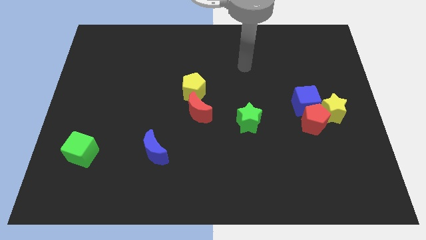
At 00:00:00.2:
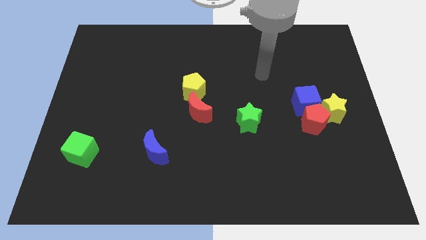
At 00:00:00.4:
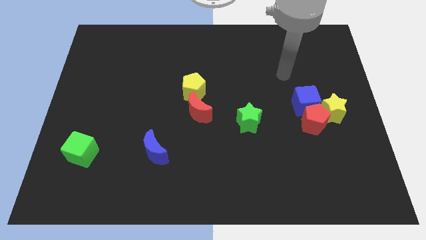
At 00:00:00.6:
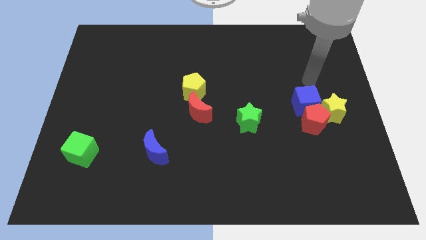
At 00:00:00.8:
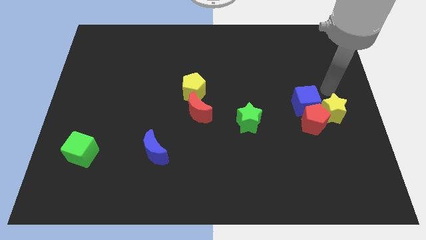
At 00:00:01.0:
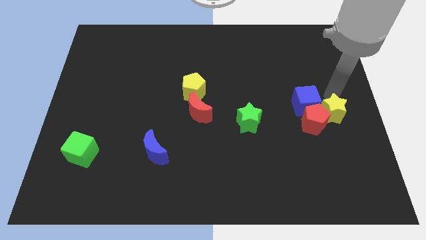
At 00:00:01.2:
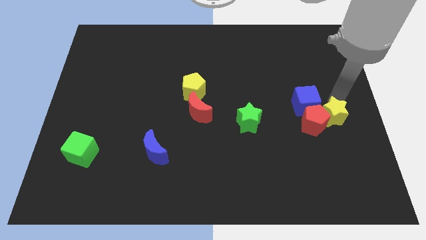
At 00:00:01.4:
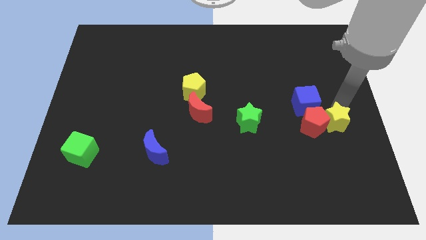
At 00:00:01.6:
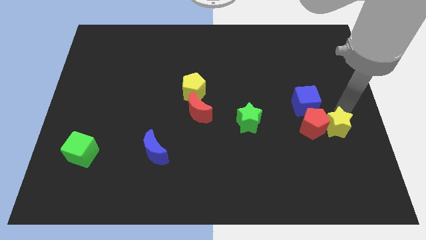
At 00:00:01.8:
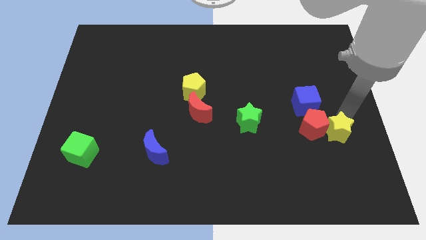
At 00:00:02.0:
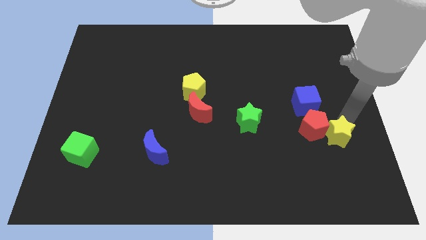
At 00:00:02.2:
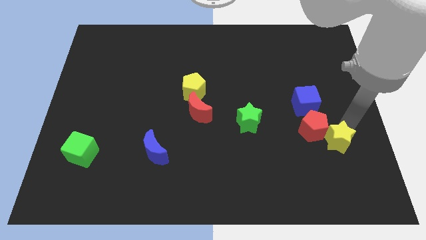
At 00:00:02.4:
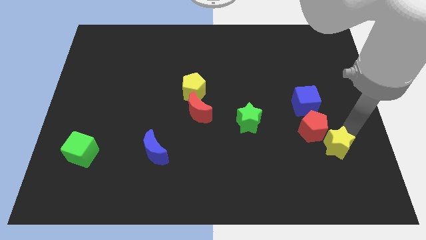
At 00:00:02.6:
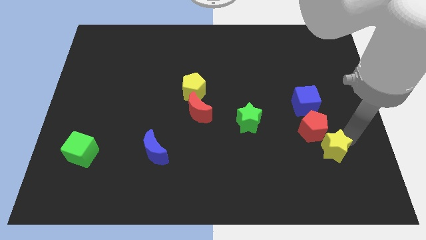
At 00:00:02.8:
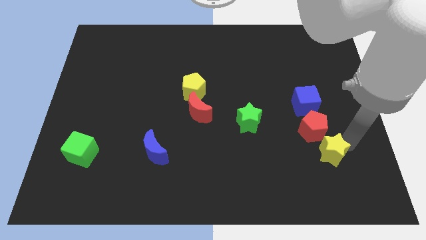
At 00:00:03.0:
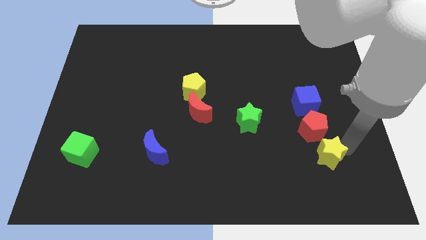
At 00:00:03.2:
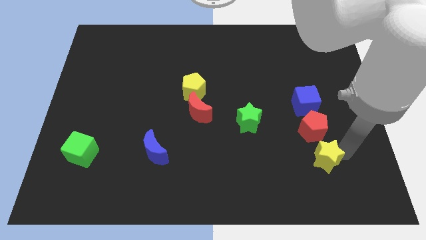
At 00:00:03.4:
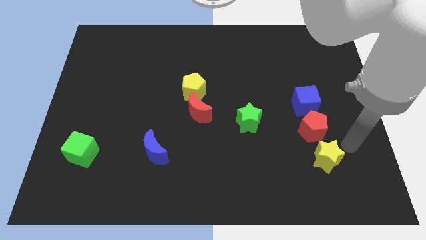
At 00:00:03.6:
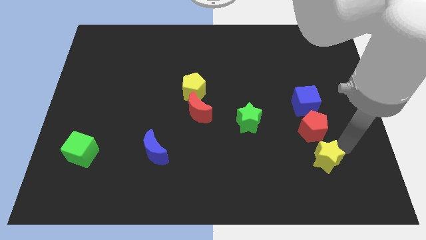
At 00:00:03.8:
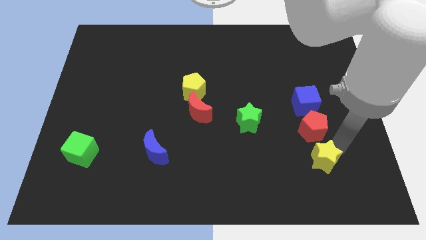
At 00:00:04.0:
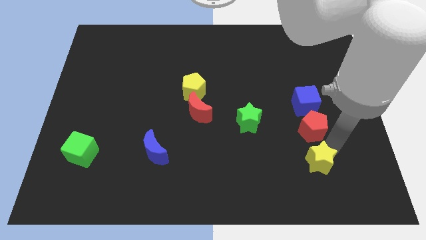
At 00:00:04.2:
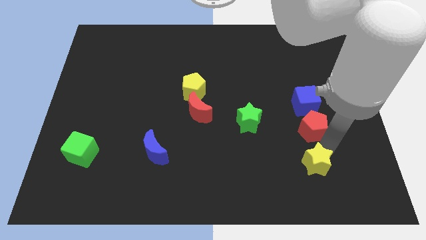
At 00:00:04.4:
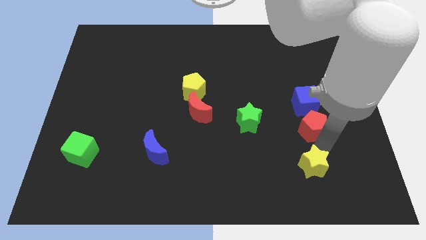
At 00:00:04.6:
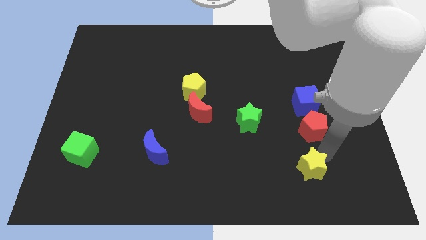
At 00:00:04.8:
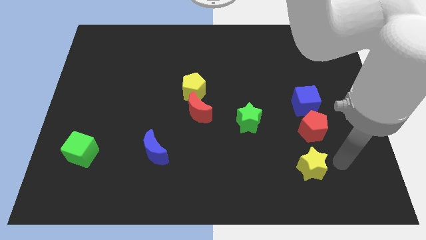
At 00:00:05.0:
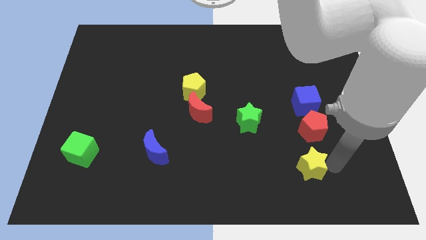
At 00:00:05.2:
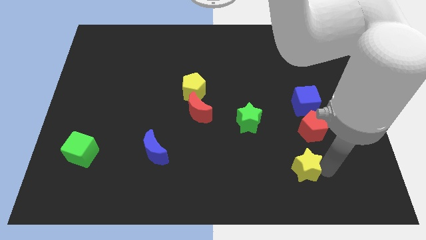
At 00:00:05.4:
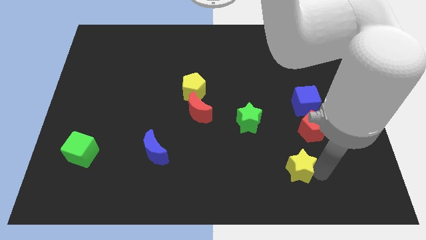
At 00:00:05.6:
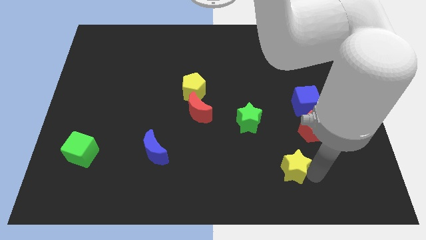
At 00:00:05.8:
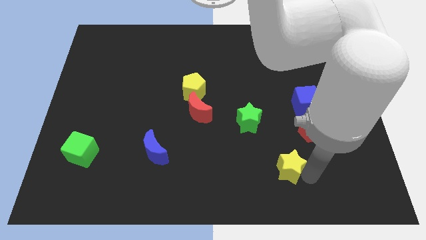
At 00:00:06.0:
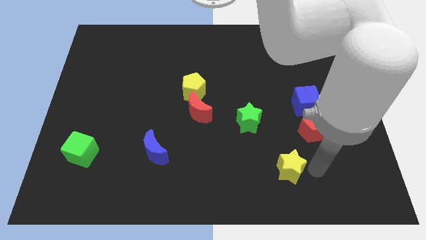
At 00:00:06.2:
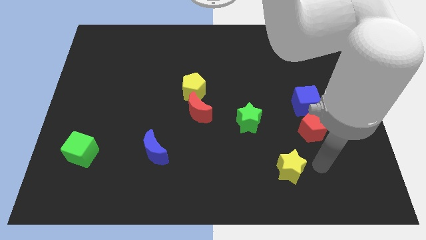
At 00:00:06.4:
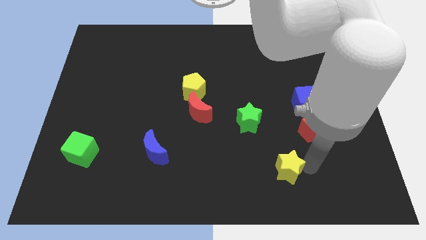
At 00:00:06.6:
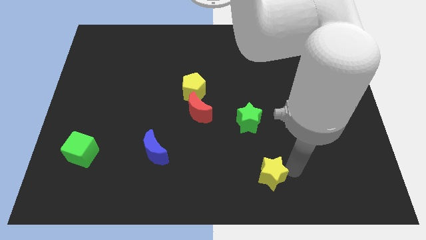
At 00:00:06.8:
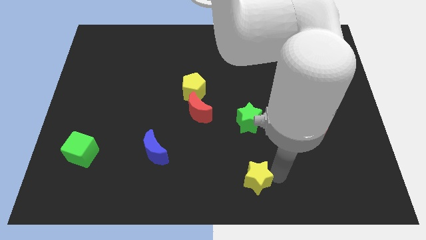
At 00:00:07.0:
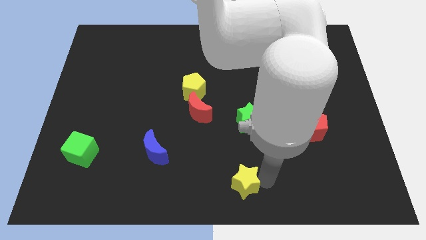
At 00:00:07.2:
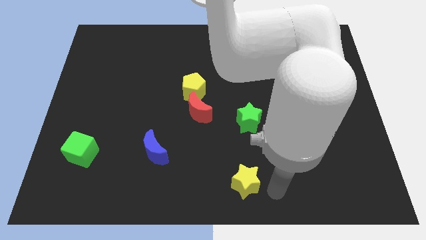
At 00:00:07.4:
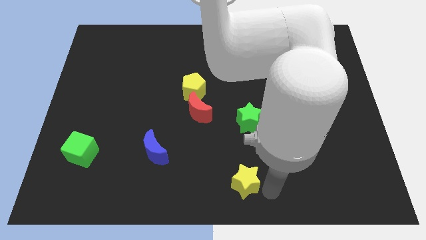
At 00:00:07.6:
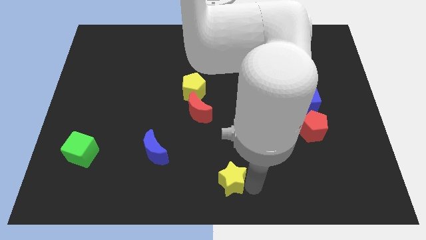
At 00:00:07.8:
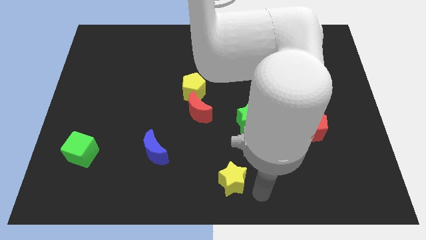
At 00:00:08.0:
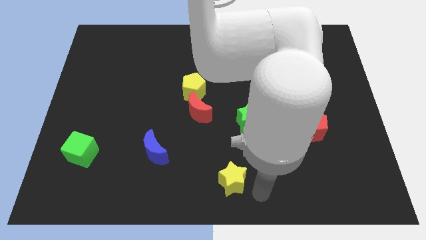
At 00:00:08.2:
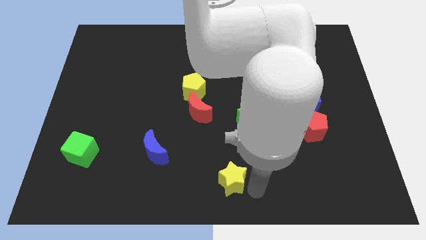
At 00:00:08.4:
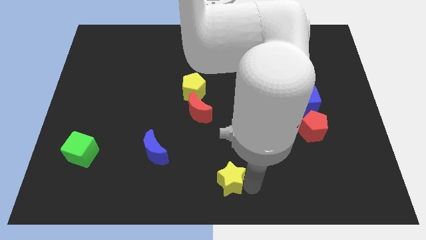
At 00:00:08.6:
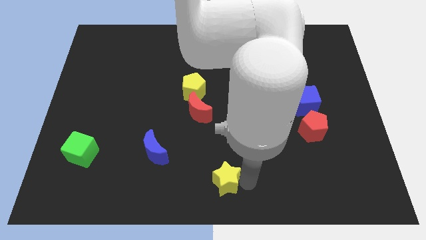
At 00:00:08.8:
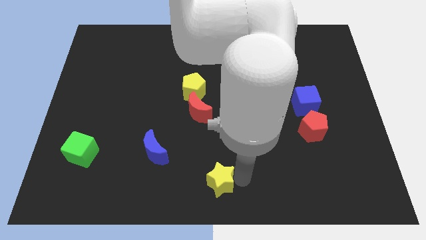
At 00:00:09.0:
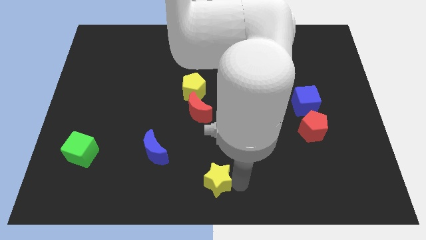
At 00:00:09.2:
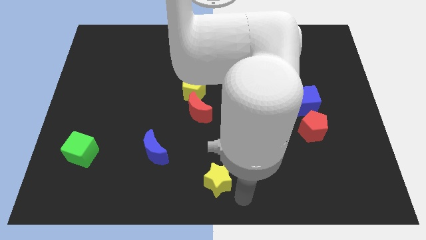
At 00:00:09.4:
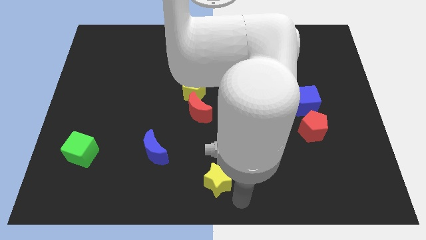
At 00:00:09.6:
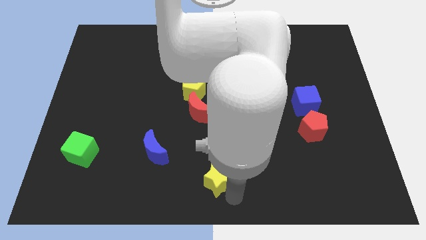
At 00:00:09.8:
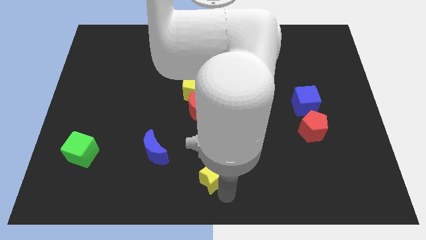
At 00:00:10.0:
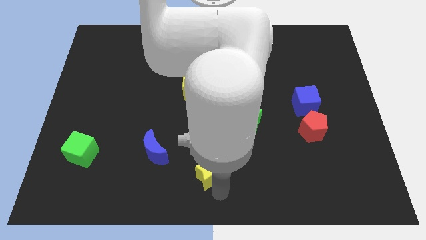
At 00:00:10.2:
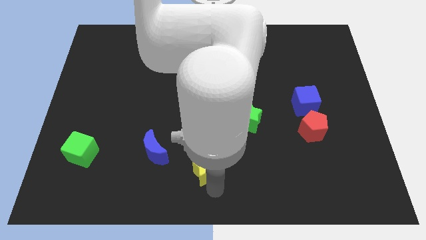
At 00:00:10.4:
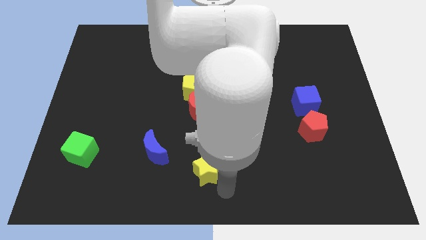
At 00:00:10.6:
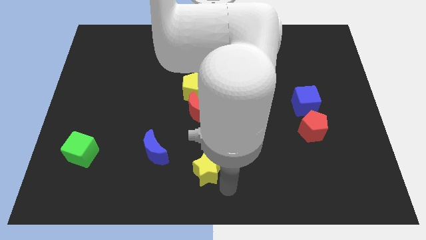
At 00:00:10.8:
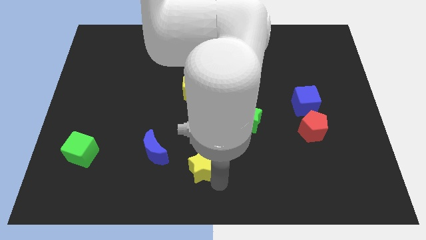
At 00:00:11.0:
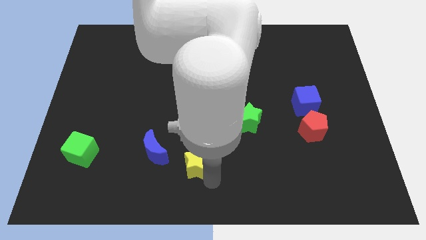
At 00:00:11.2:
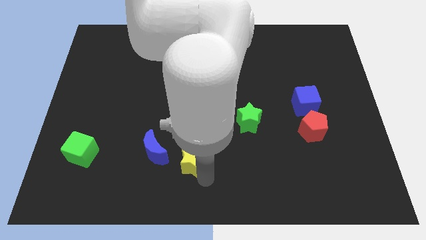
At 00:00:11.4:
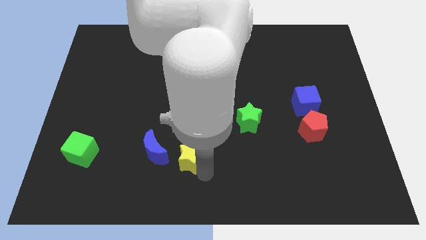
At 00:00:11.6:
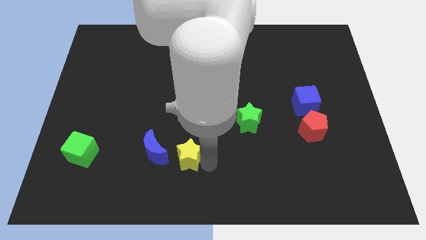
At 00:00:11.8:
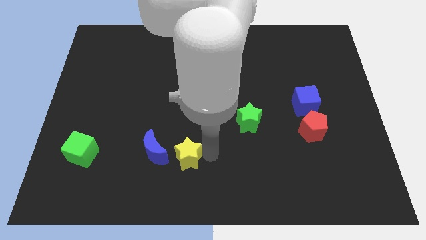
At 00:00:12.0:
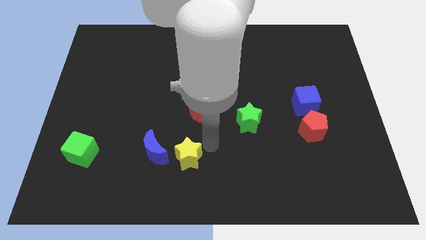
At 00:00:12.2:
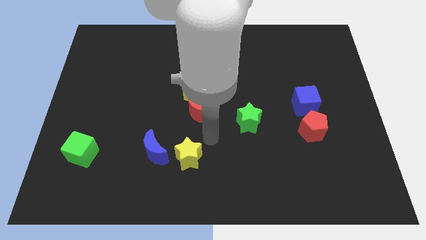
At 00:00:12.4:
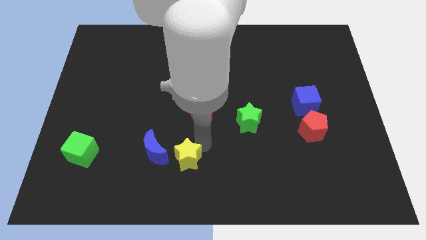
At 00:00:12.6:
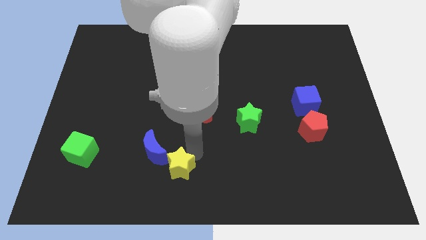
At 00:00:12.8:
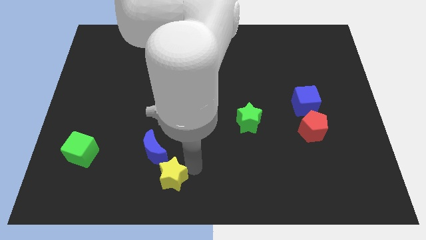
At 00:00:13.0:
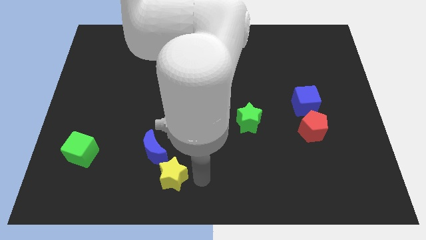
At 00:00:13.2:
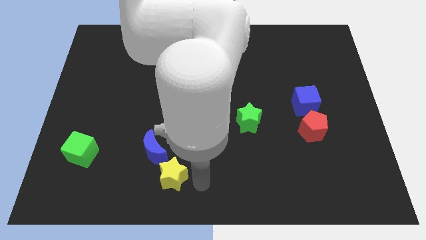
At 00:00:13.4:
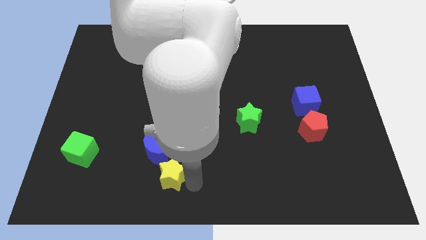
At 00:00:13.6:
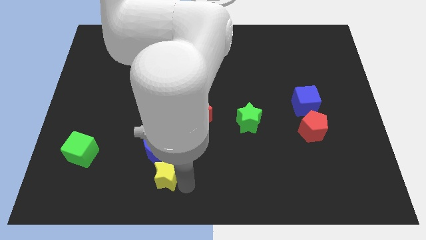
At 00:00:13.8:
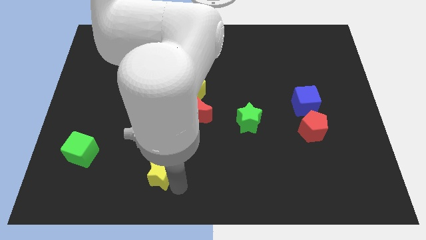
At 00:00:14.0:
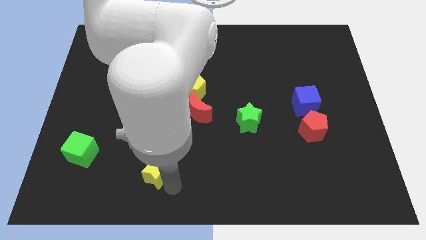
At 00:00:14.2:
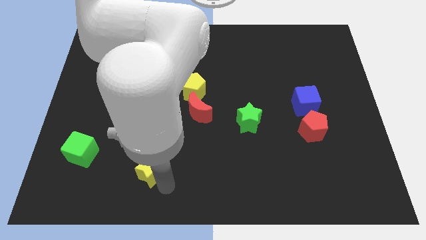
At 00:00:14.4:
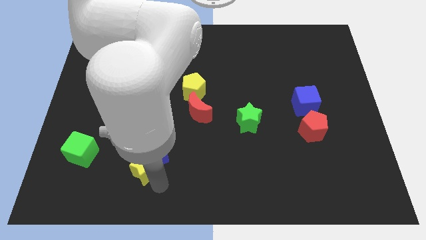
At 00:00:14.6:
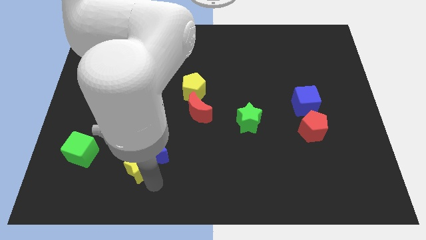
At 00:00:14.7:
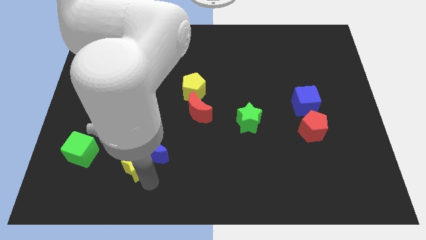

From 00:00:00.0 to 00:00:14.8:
slide the yellow star to the left side of the blue moon
